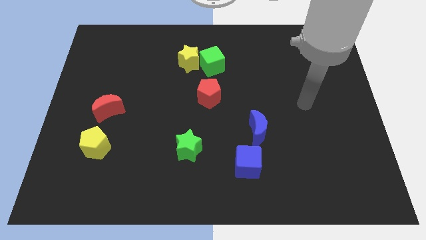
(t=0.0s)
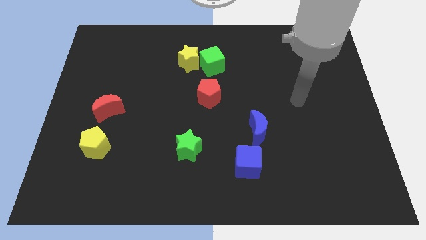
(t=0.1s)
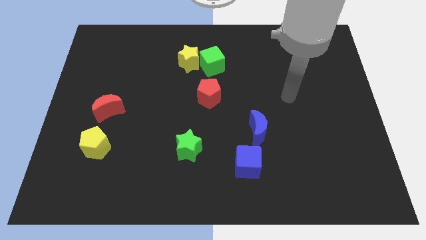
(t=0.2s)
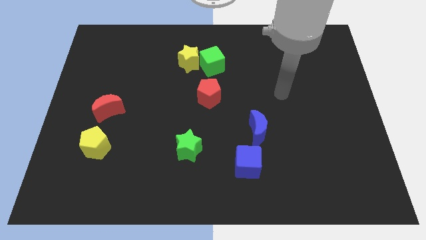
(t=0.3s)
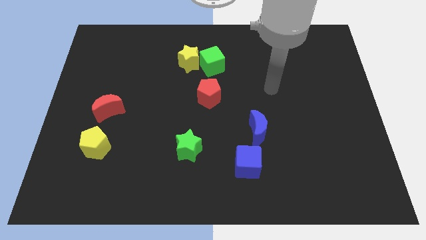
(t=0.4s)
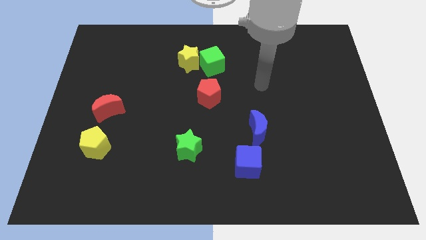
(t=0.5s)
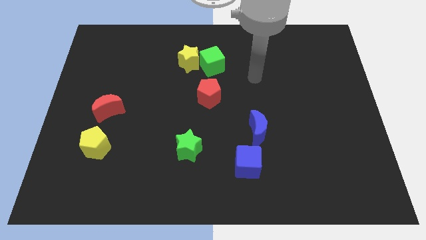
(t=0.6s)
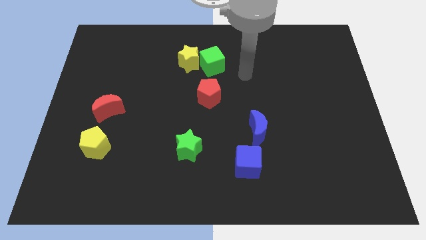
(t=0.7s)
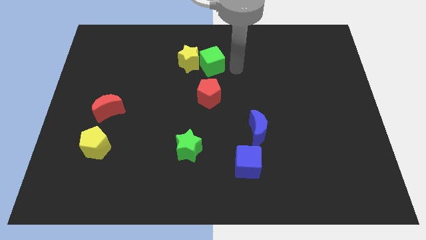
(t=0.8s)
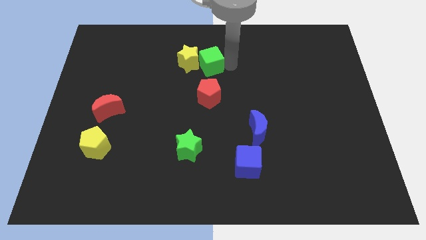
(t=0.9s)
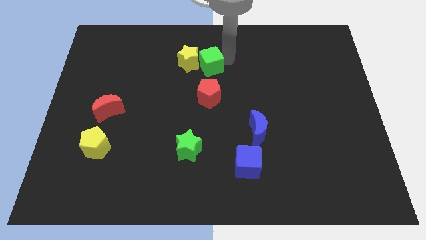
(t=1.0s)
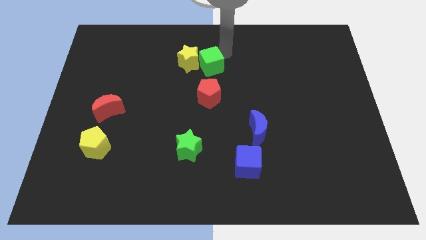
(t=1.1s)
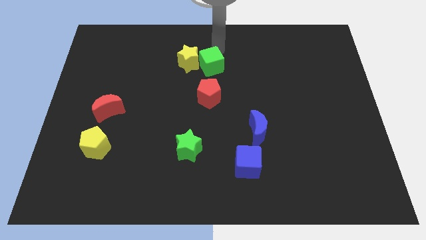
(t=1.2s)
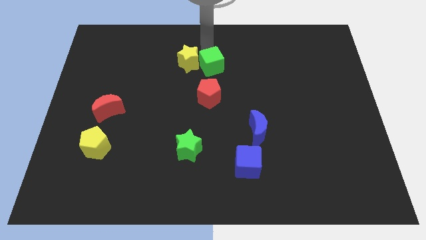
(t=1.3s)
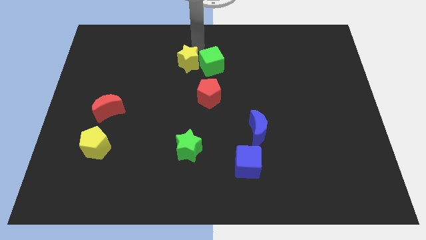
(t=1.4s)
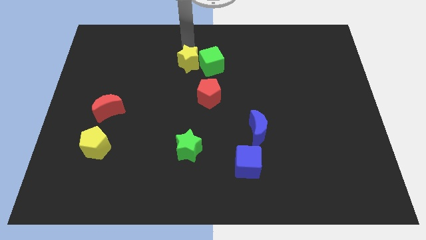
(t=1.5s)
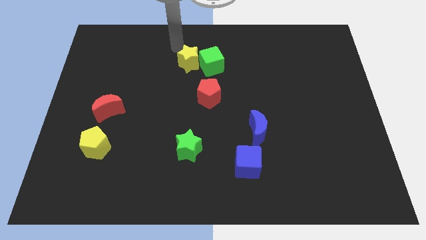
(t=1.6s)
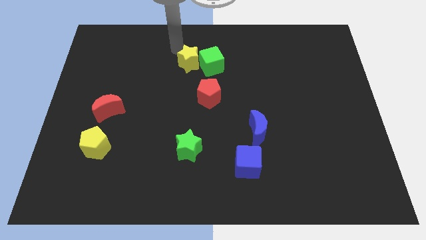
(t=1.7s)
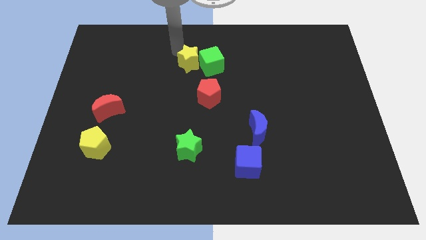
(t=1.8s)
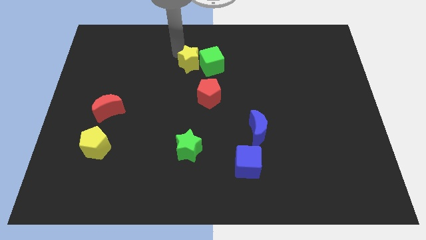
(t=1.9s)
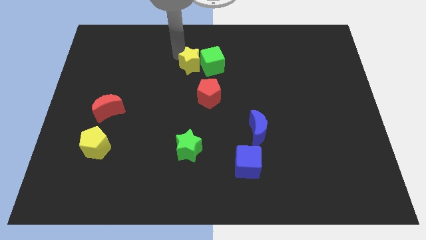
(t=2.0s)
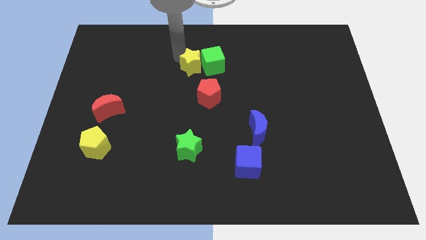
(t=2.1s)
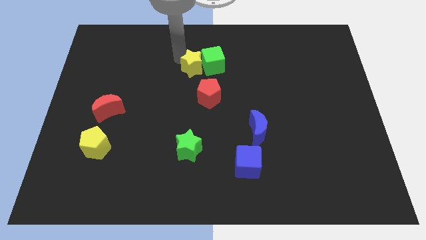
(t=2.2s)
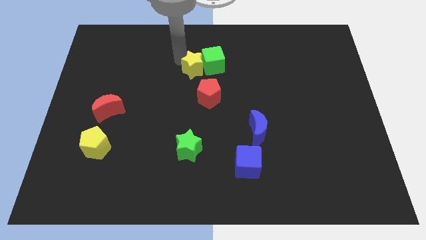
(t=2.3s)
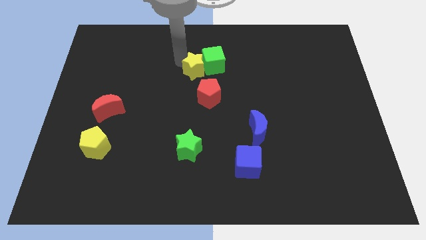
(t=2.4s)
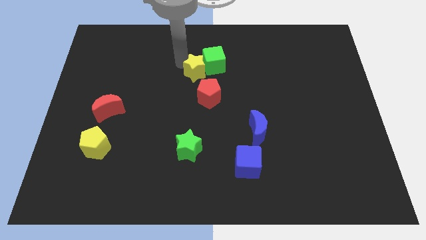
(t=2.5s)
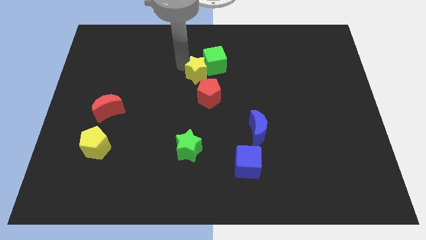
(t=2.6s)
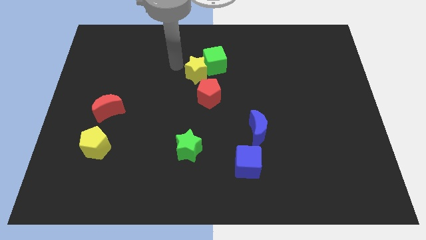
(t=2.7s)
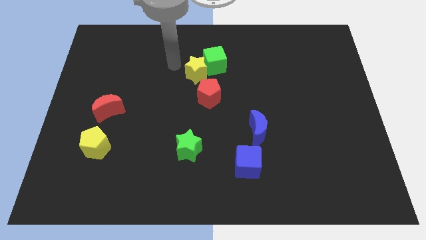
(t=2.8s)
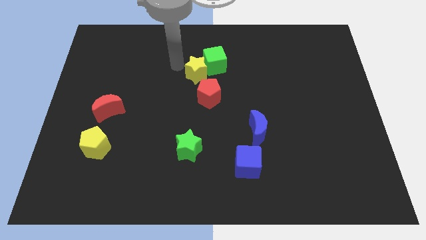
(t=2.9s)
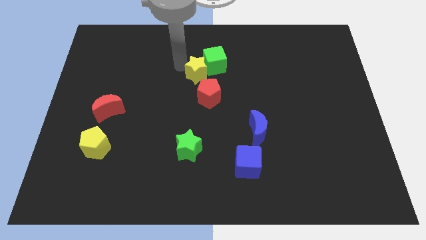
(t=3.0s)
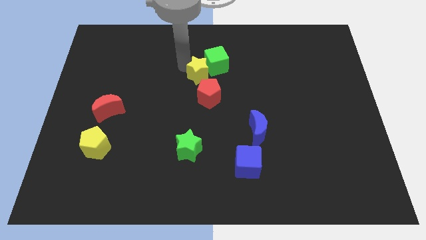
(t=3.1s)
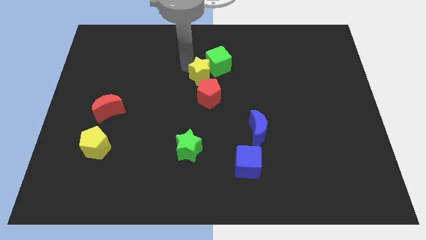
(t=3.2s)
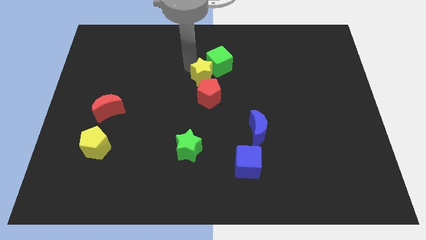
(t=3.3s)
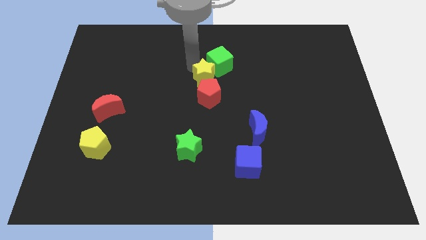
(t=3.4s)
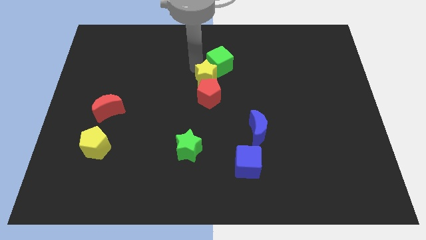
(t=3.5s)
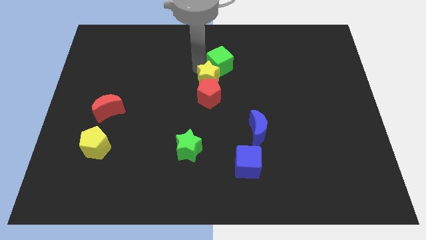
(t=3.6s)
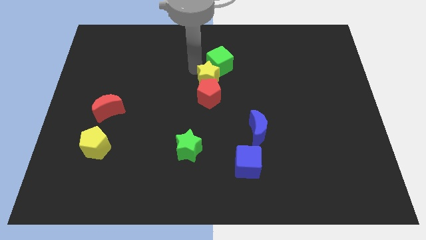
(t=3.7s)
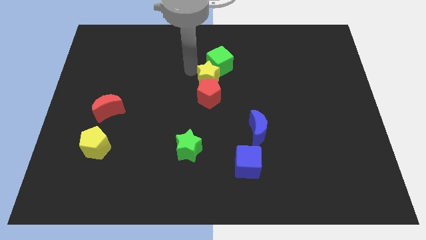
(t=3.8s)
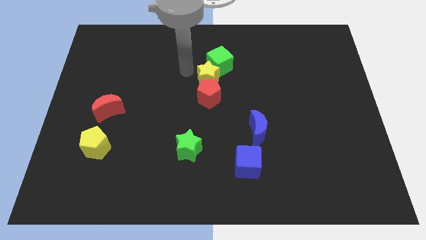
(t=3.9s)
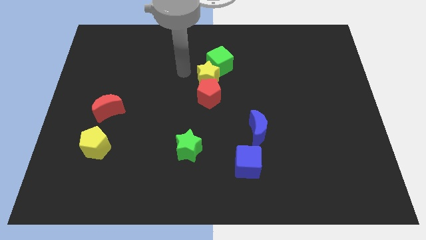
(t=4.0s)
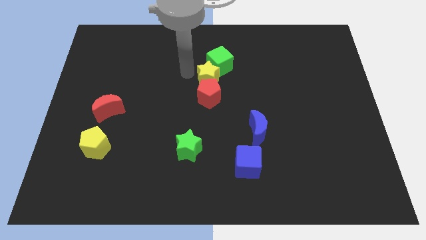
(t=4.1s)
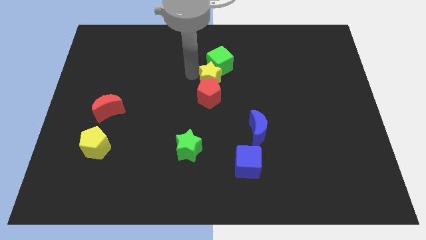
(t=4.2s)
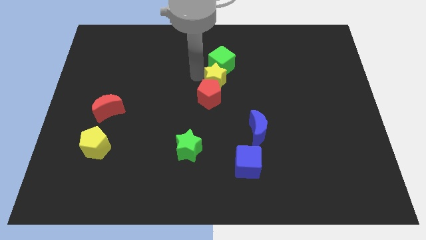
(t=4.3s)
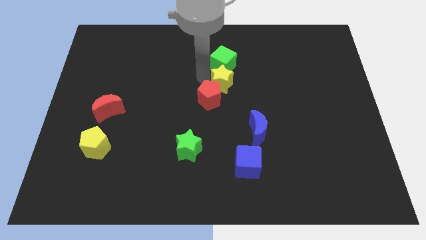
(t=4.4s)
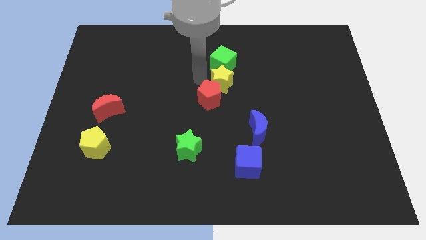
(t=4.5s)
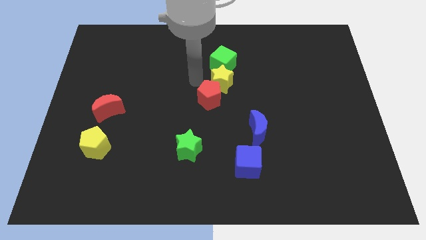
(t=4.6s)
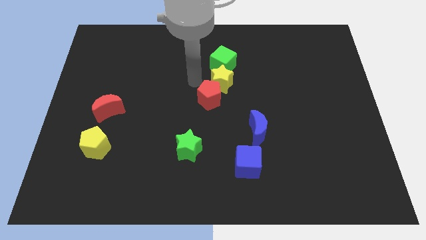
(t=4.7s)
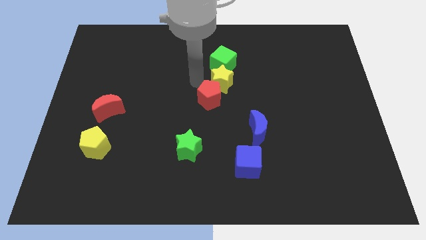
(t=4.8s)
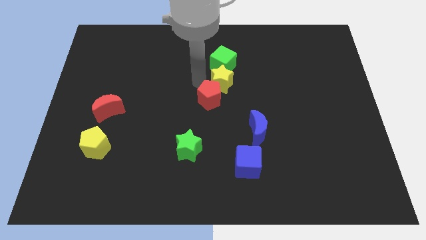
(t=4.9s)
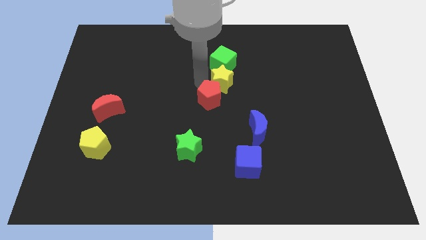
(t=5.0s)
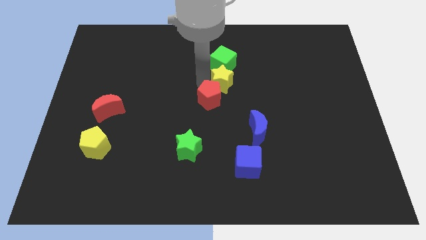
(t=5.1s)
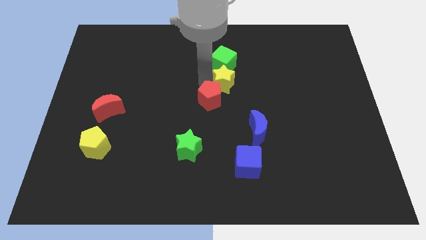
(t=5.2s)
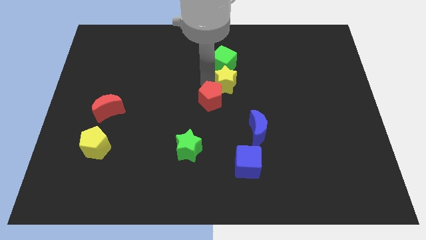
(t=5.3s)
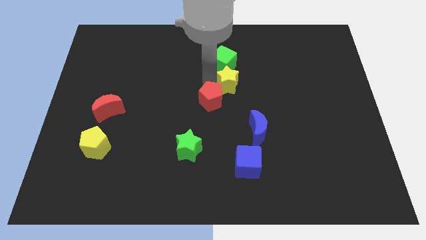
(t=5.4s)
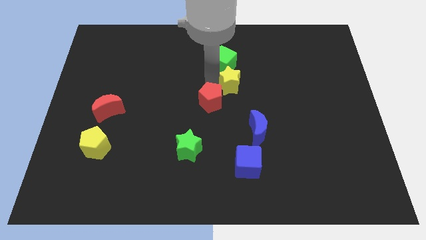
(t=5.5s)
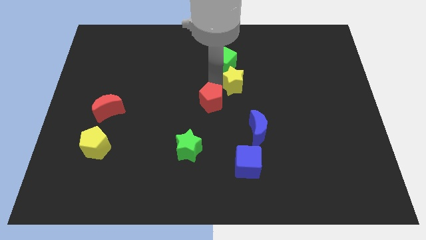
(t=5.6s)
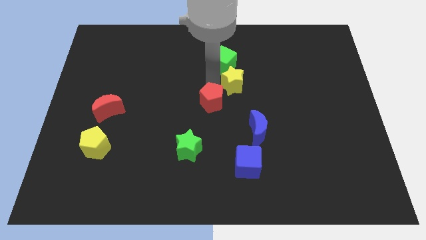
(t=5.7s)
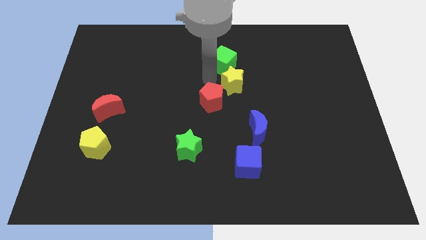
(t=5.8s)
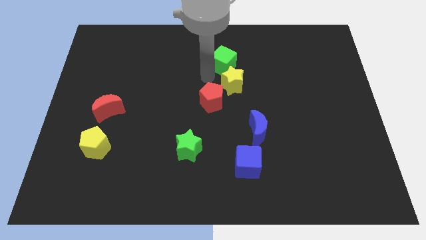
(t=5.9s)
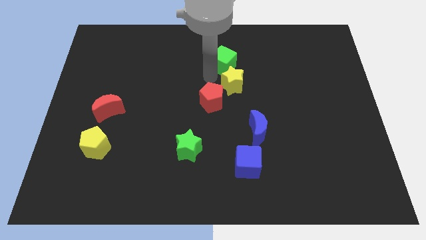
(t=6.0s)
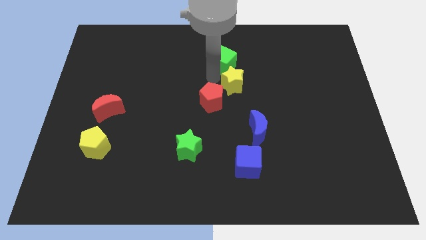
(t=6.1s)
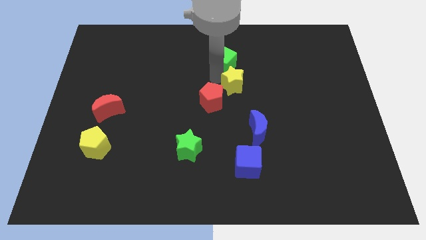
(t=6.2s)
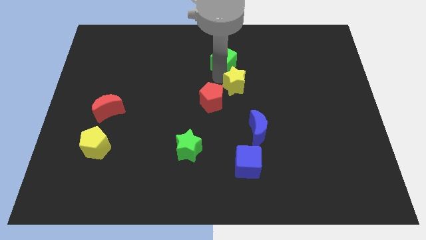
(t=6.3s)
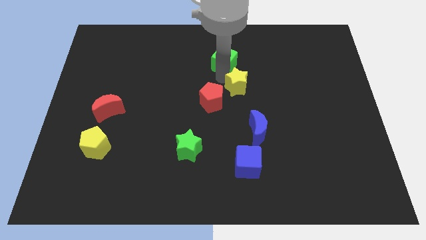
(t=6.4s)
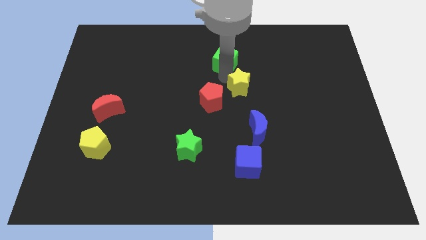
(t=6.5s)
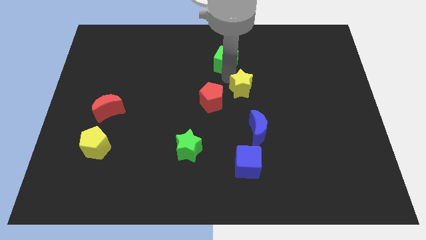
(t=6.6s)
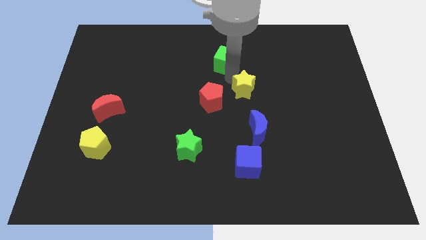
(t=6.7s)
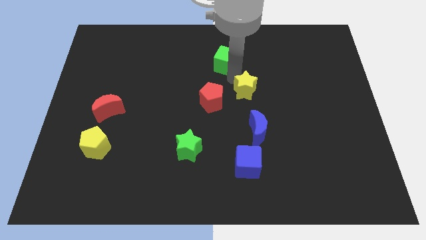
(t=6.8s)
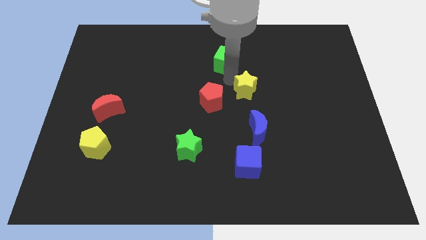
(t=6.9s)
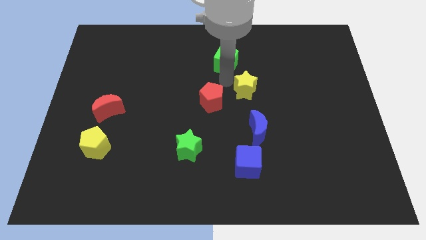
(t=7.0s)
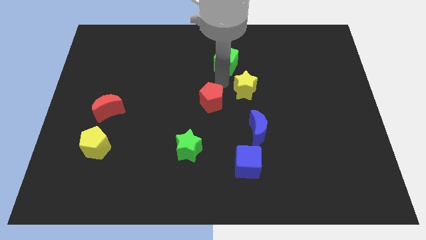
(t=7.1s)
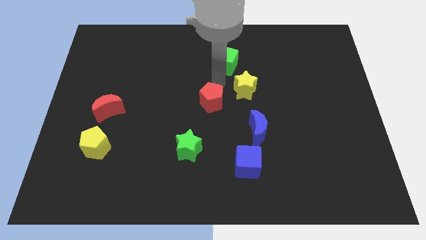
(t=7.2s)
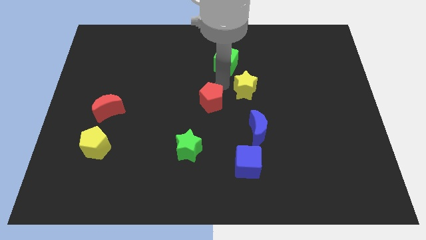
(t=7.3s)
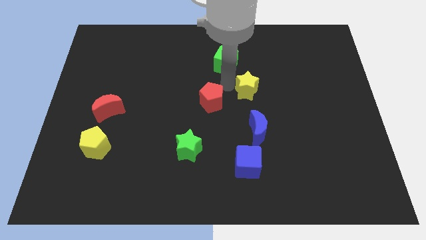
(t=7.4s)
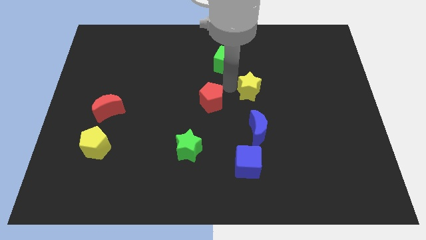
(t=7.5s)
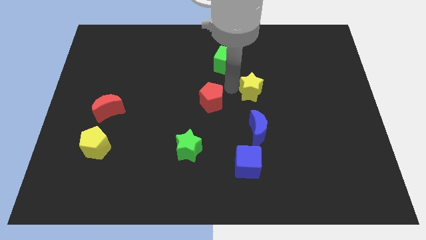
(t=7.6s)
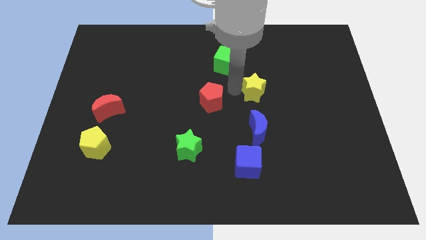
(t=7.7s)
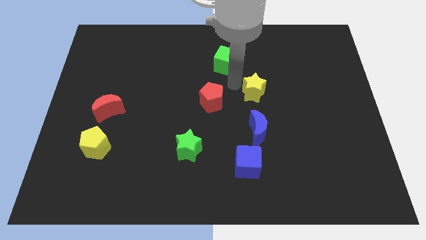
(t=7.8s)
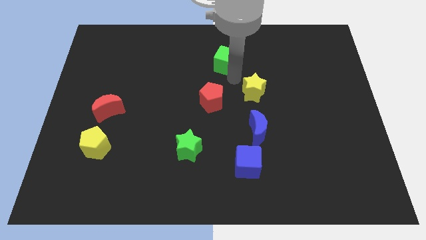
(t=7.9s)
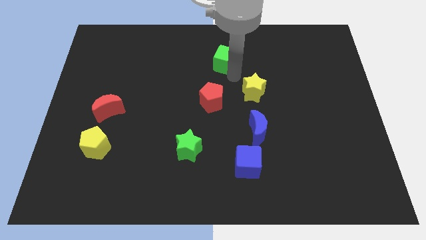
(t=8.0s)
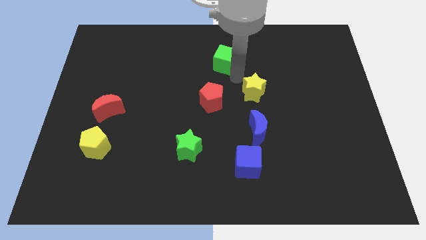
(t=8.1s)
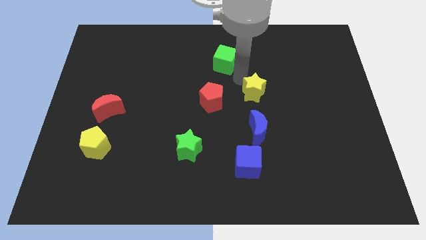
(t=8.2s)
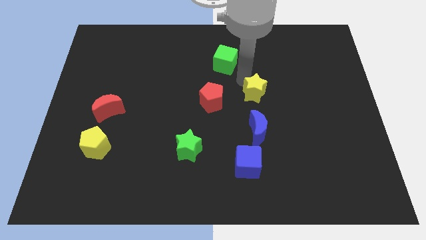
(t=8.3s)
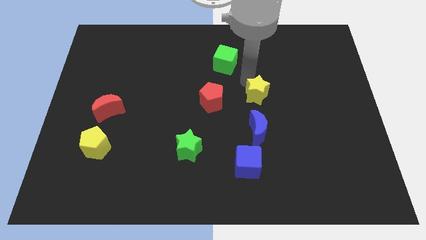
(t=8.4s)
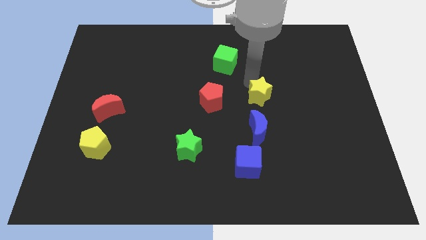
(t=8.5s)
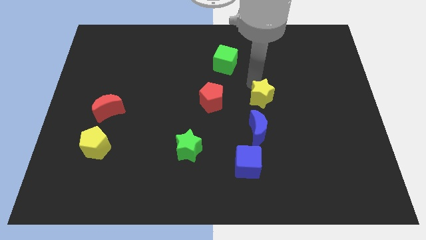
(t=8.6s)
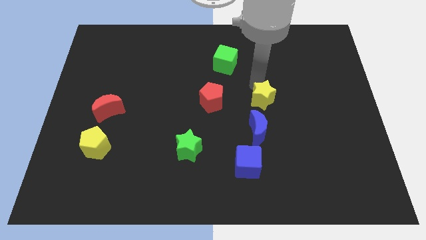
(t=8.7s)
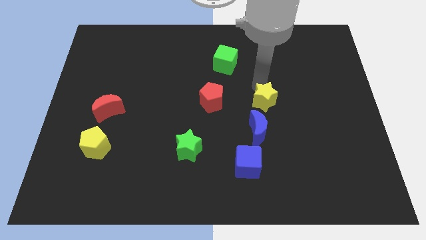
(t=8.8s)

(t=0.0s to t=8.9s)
move the yellow star diagonally up and to the right of the blue moon
